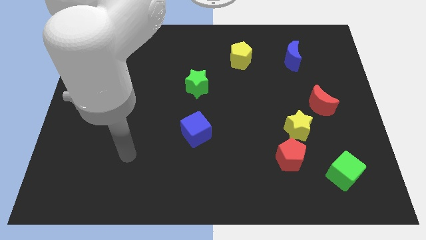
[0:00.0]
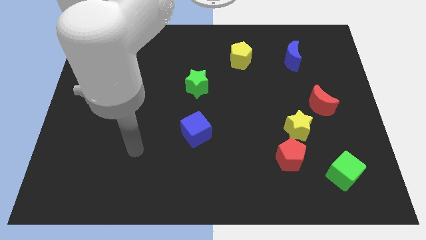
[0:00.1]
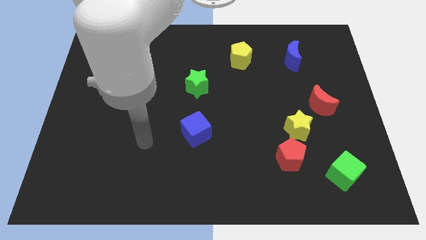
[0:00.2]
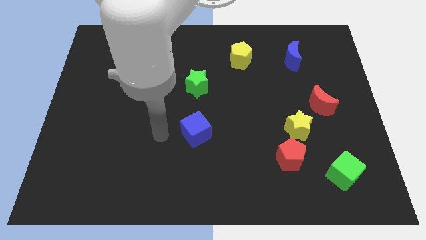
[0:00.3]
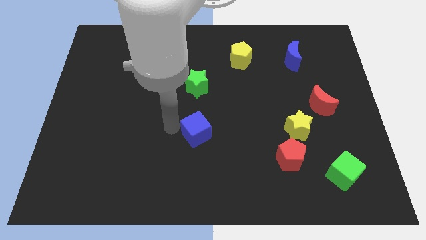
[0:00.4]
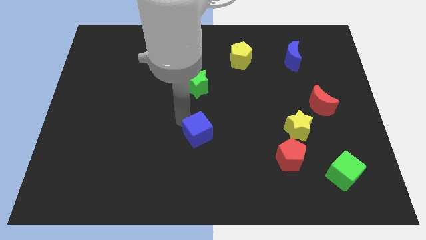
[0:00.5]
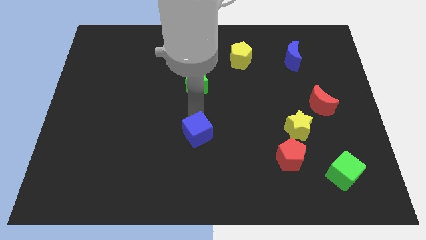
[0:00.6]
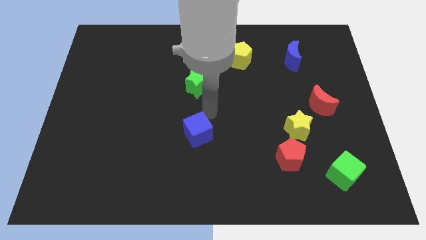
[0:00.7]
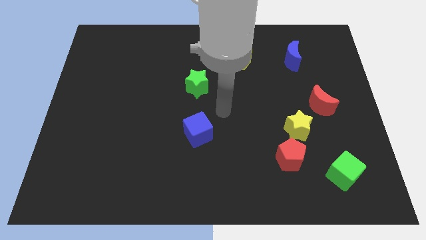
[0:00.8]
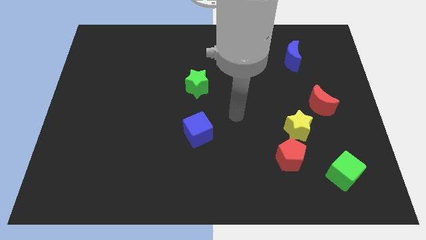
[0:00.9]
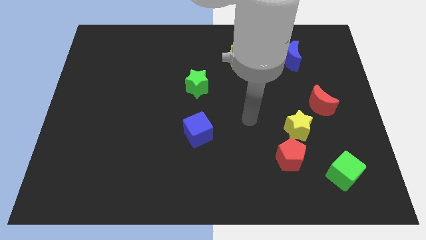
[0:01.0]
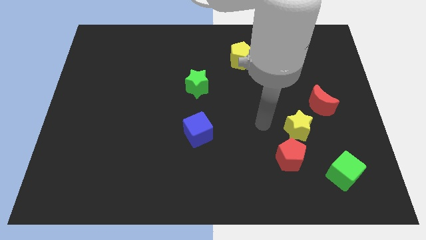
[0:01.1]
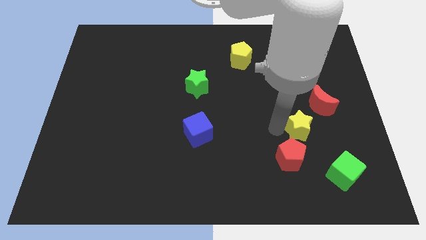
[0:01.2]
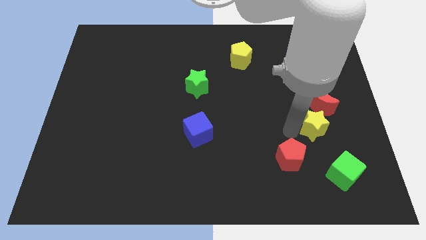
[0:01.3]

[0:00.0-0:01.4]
separate the red pentagon from the yellow star

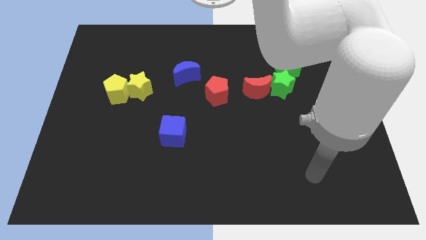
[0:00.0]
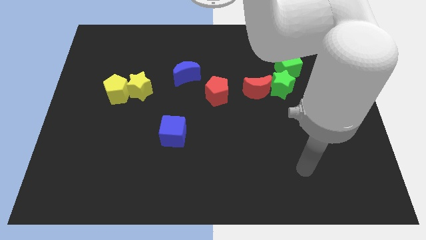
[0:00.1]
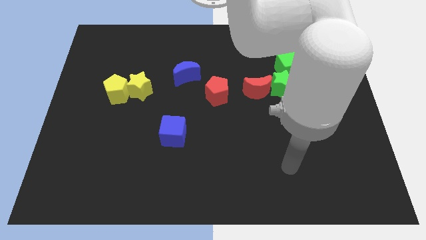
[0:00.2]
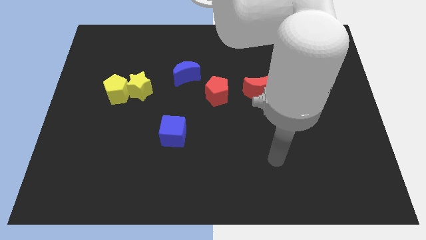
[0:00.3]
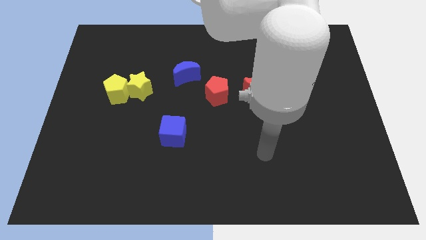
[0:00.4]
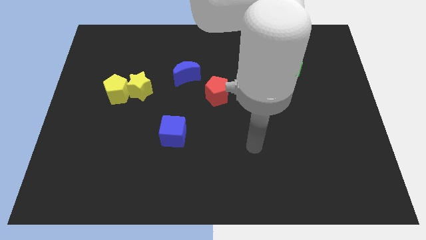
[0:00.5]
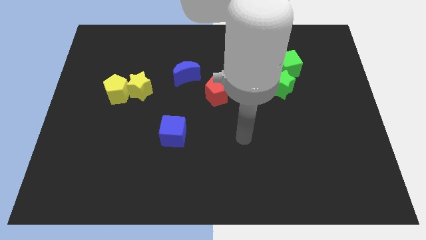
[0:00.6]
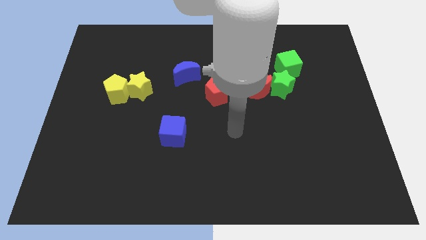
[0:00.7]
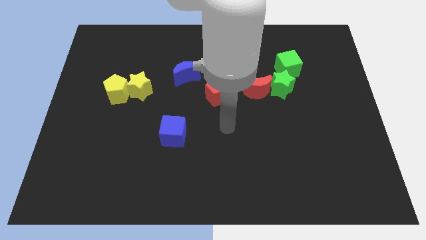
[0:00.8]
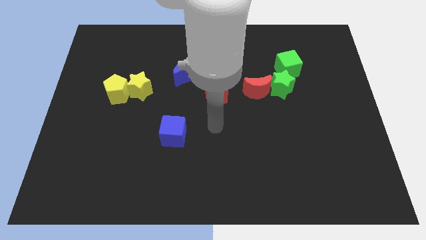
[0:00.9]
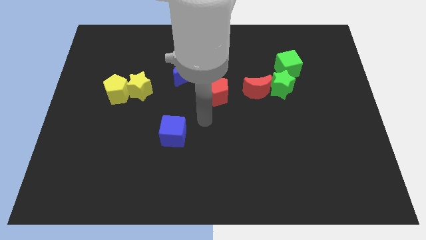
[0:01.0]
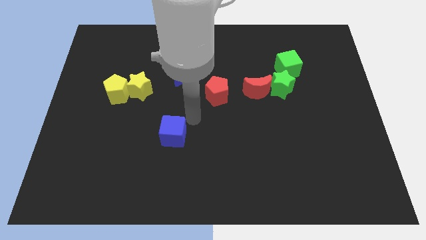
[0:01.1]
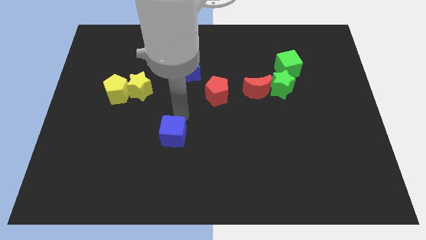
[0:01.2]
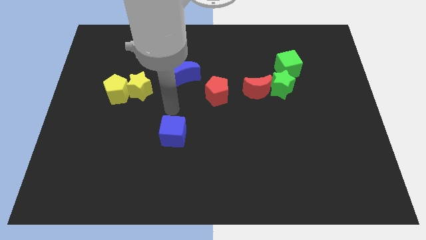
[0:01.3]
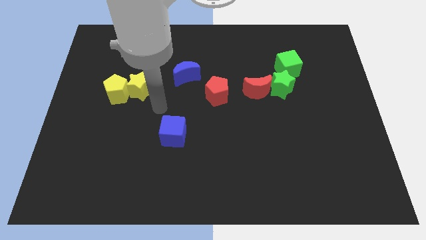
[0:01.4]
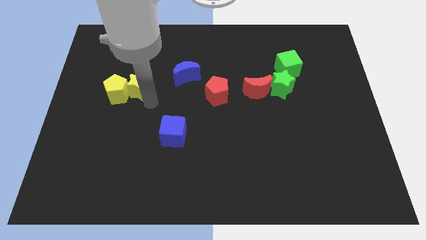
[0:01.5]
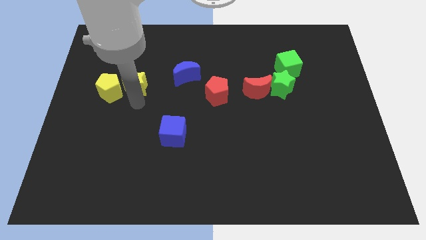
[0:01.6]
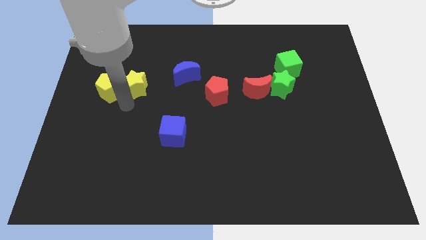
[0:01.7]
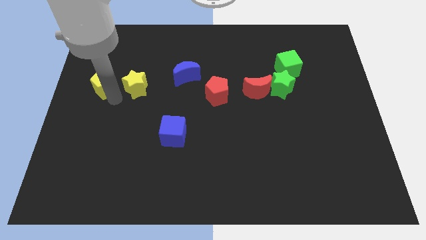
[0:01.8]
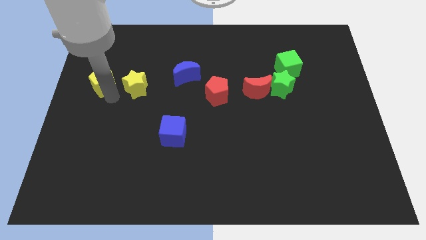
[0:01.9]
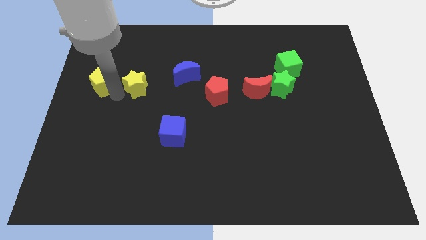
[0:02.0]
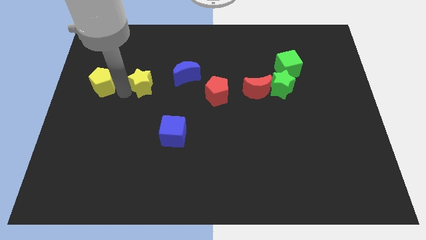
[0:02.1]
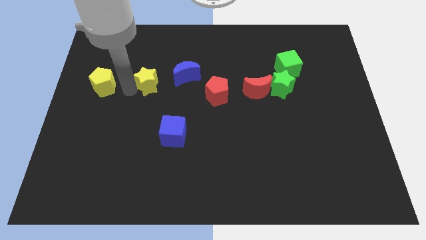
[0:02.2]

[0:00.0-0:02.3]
pull the yellow star apart from the yellow pentagon

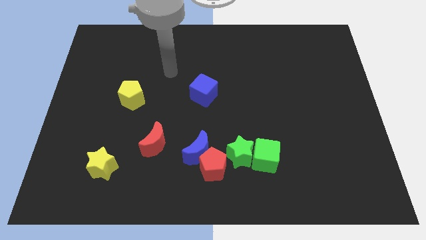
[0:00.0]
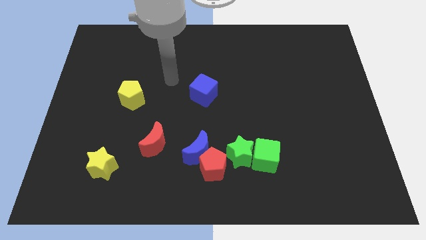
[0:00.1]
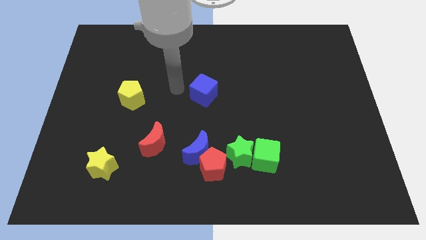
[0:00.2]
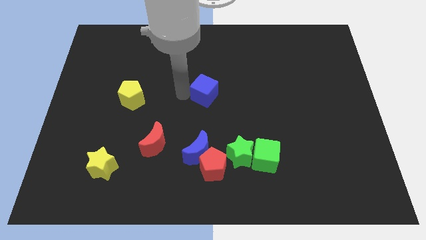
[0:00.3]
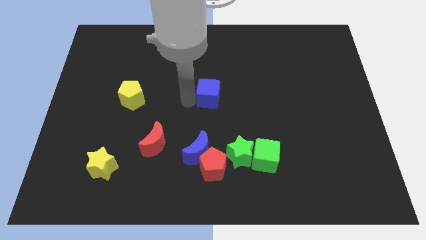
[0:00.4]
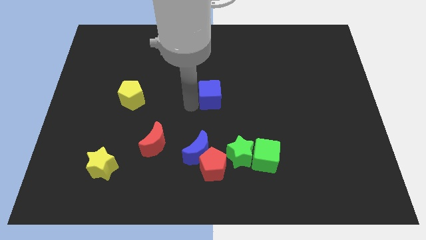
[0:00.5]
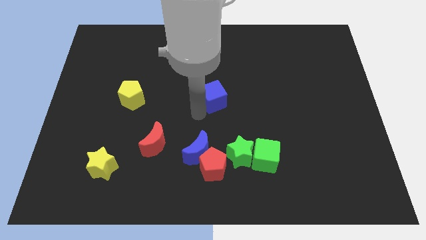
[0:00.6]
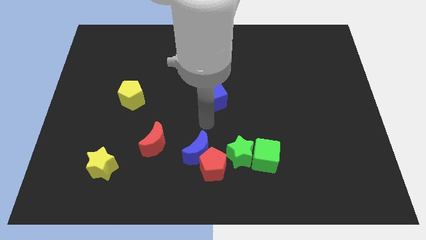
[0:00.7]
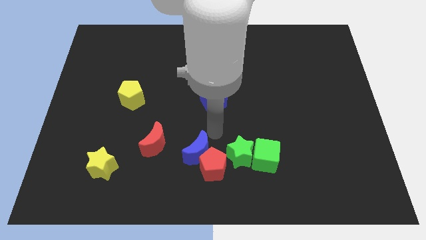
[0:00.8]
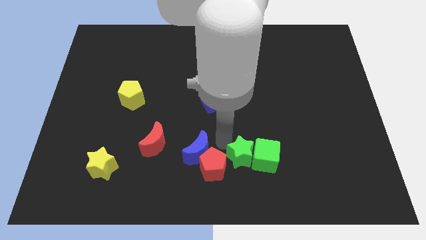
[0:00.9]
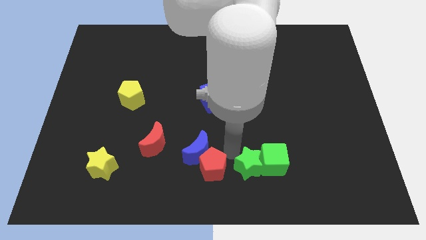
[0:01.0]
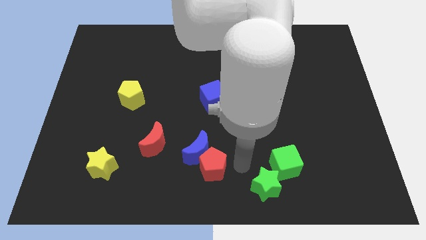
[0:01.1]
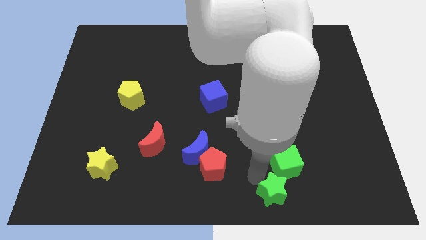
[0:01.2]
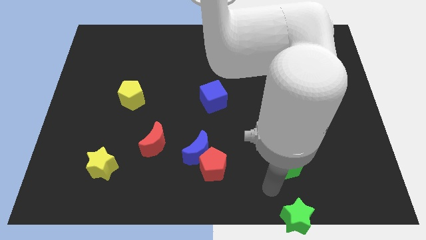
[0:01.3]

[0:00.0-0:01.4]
pull the green cube apart from the green star

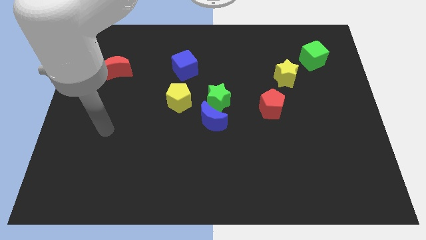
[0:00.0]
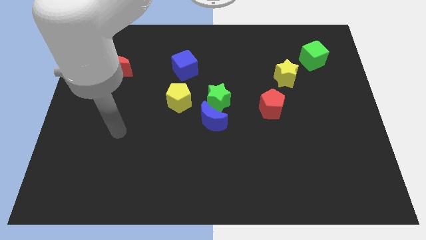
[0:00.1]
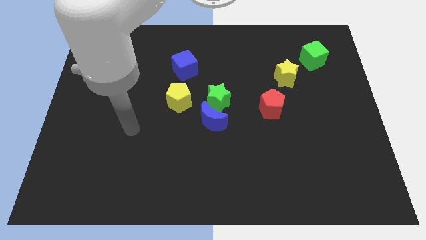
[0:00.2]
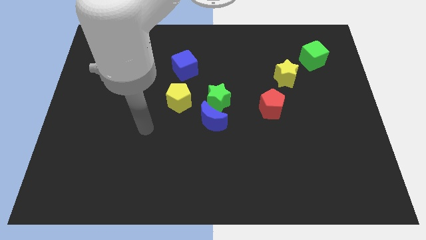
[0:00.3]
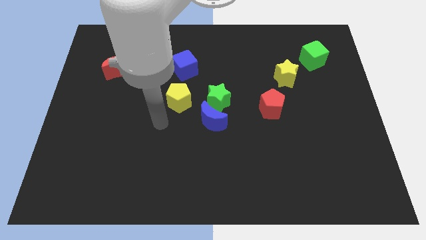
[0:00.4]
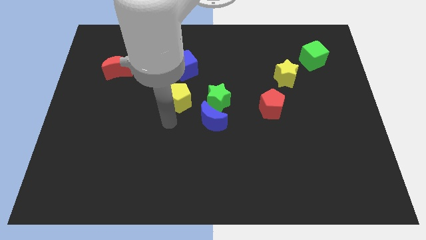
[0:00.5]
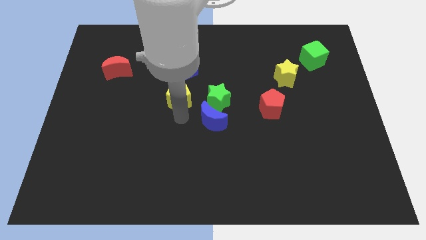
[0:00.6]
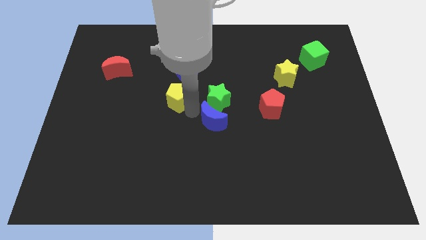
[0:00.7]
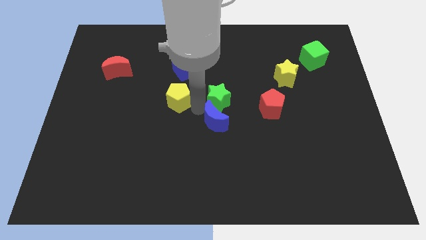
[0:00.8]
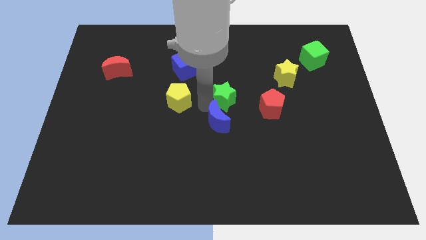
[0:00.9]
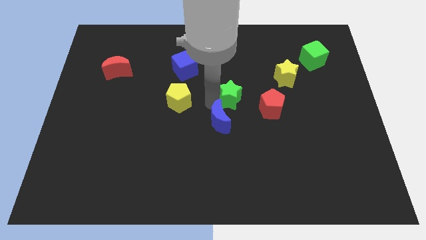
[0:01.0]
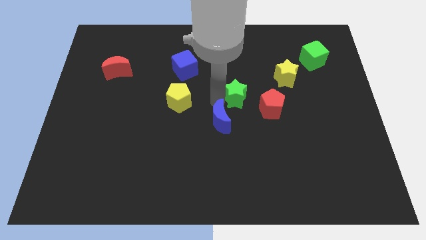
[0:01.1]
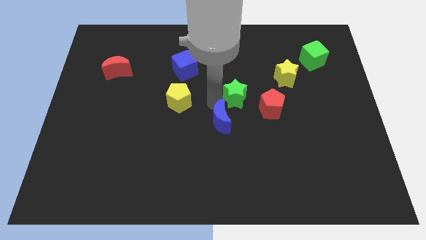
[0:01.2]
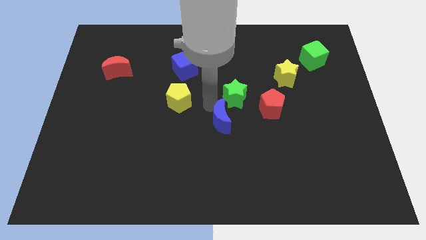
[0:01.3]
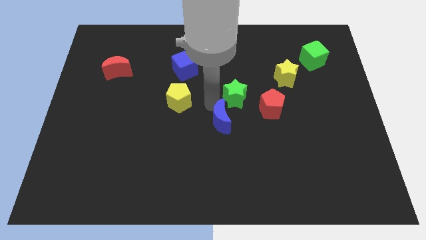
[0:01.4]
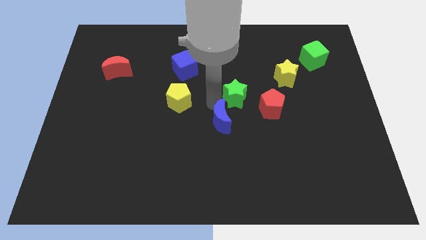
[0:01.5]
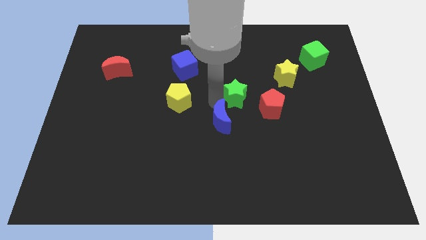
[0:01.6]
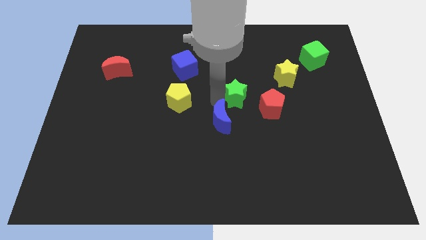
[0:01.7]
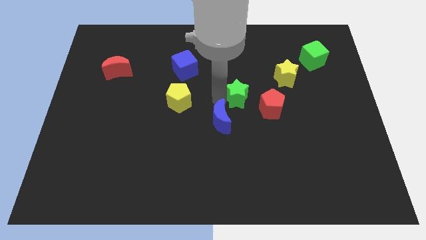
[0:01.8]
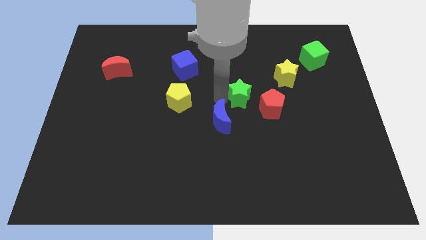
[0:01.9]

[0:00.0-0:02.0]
move the green star away from the blue moon and yellow pentagon

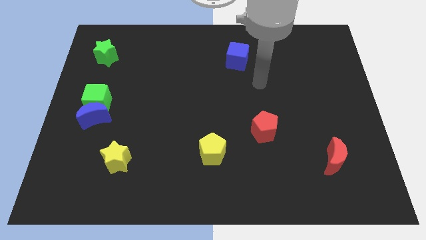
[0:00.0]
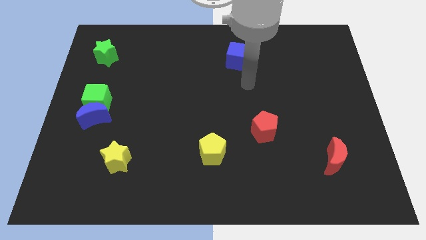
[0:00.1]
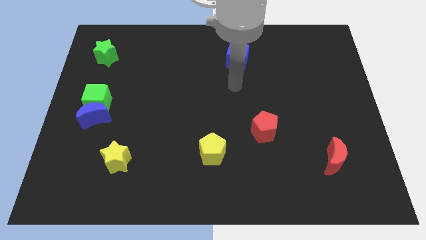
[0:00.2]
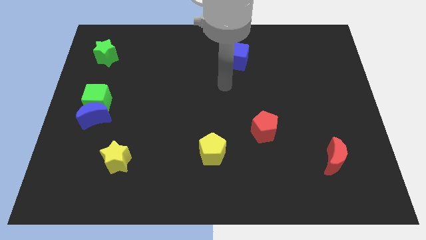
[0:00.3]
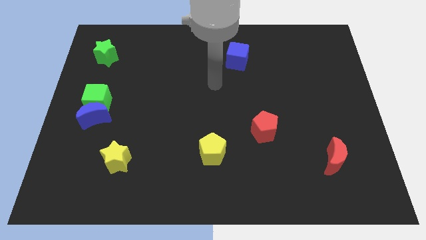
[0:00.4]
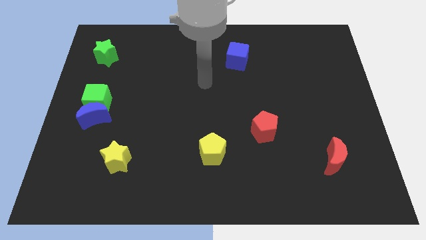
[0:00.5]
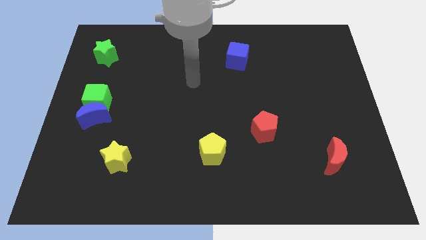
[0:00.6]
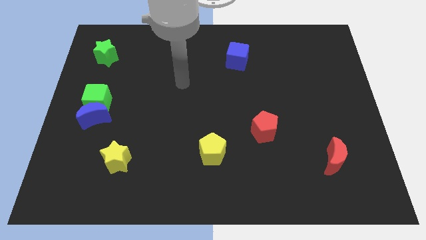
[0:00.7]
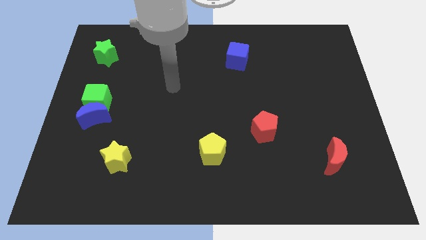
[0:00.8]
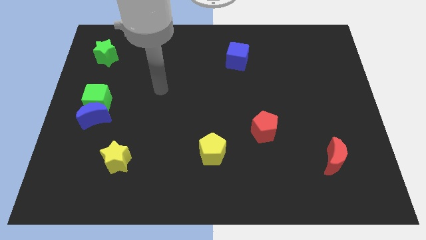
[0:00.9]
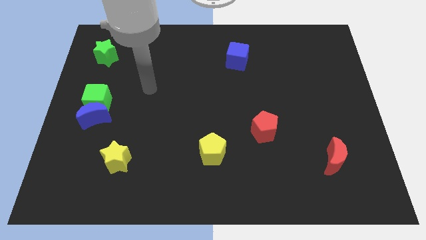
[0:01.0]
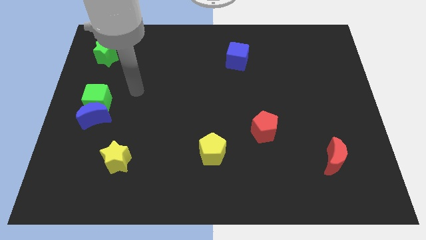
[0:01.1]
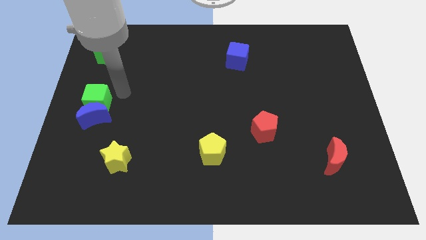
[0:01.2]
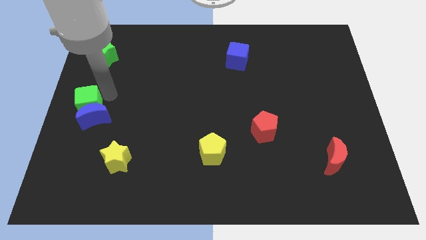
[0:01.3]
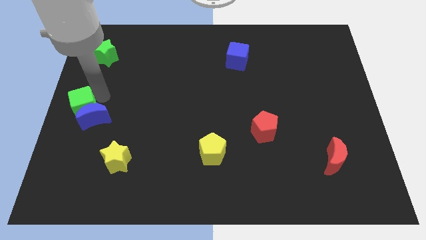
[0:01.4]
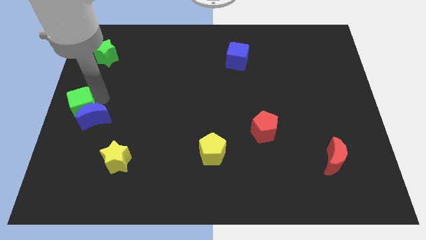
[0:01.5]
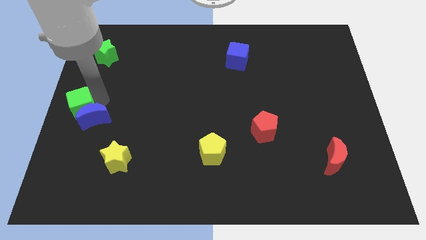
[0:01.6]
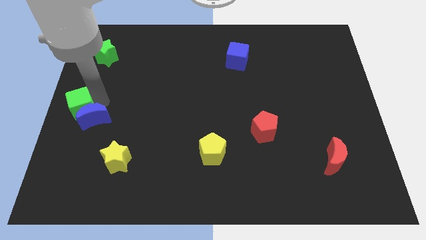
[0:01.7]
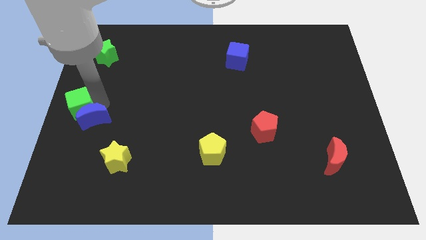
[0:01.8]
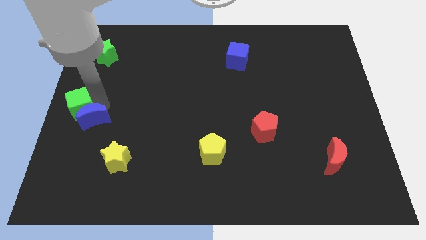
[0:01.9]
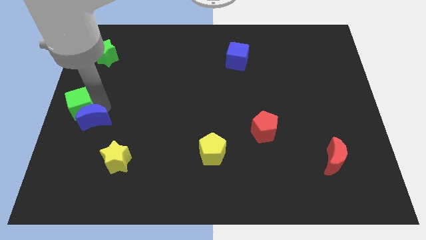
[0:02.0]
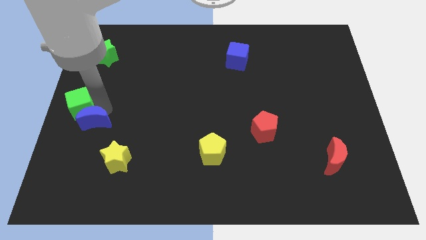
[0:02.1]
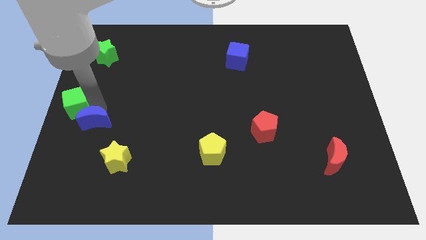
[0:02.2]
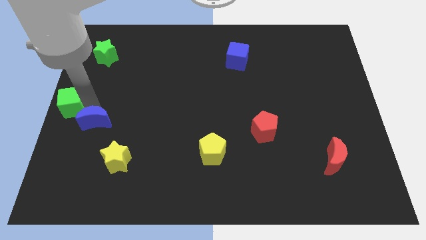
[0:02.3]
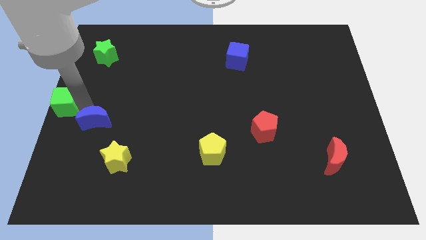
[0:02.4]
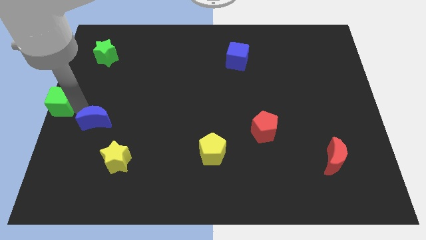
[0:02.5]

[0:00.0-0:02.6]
move the blue moon away from the green cube
